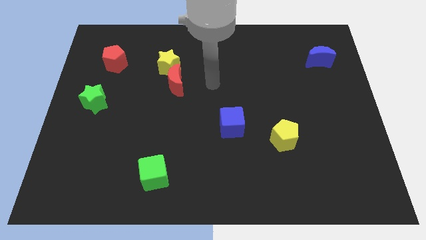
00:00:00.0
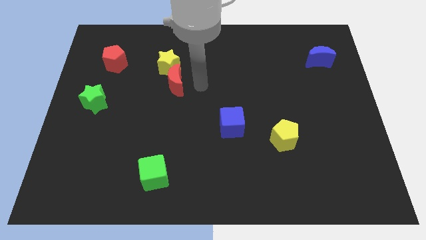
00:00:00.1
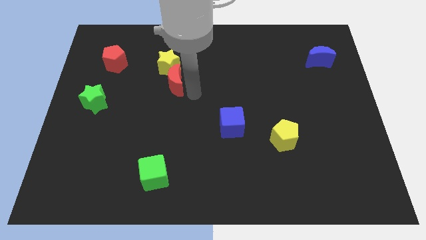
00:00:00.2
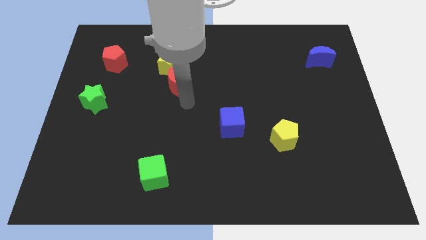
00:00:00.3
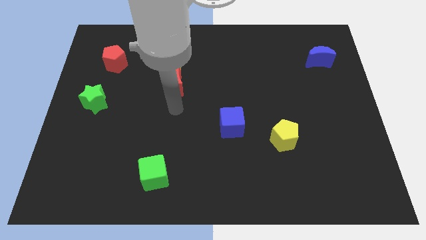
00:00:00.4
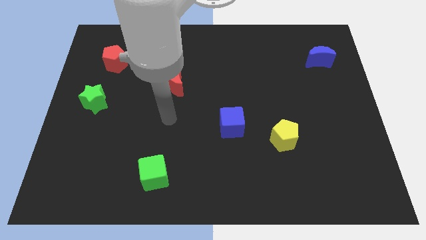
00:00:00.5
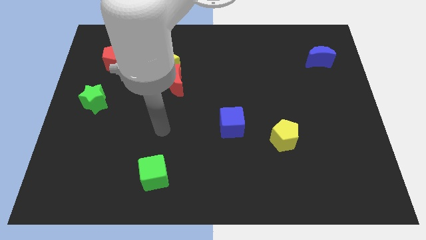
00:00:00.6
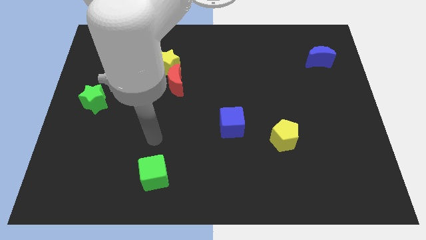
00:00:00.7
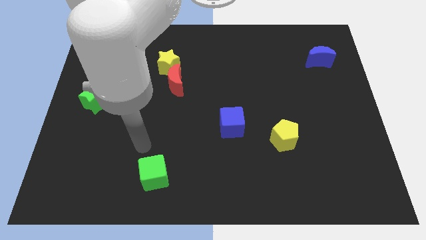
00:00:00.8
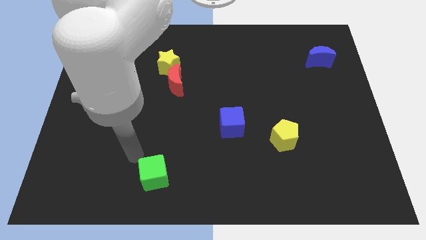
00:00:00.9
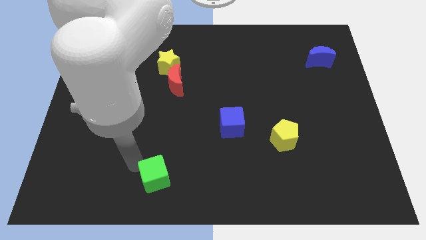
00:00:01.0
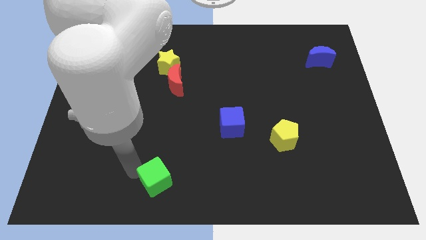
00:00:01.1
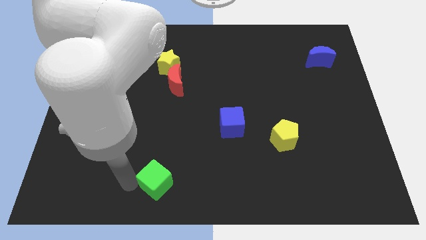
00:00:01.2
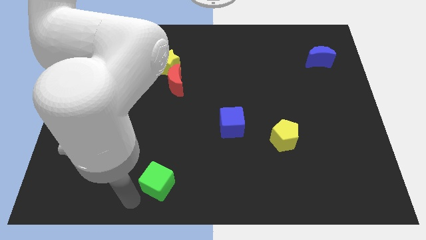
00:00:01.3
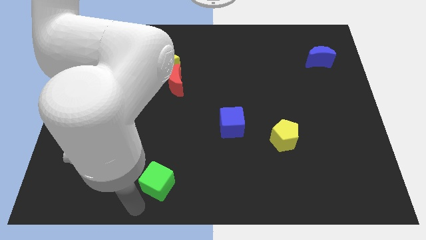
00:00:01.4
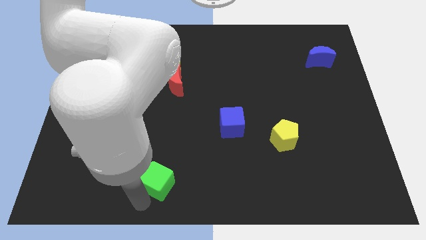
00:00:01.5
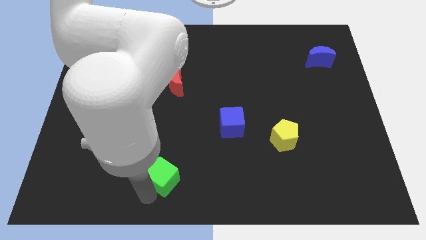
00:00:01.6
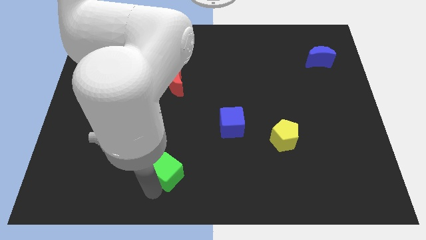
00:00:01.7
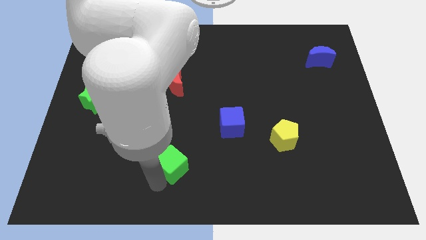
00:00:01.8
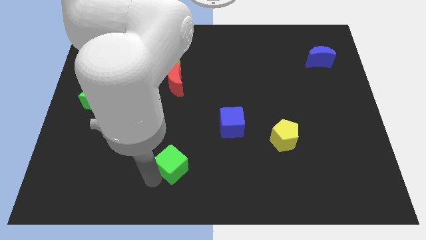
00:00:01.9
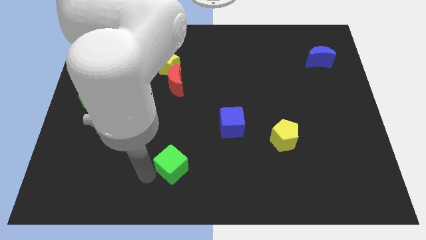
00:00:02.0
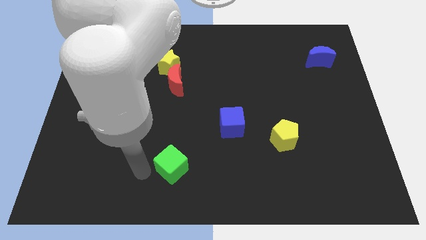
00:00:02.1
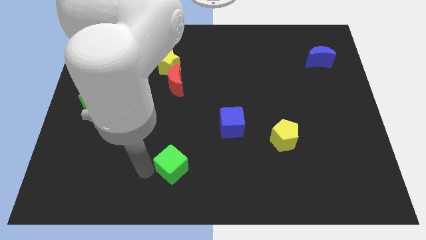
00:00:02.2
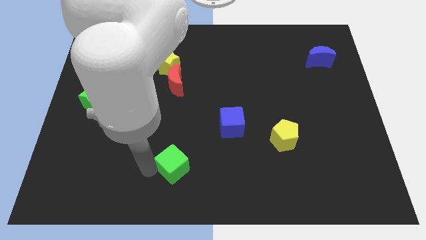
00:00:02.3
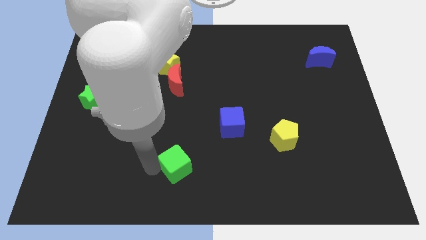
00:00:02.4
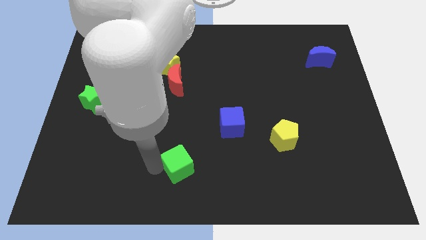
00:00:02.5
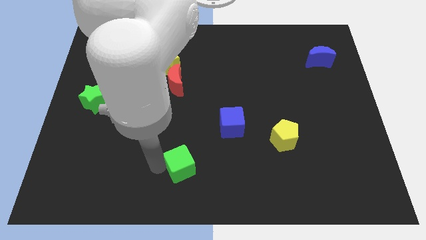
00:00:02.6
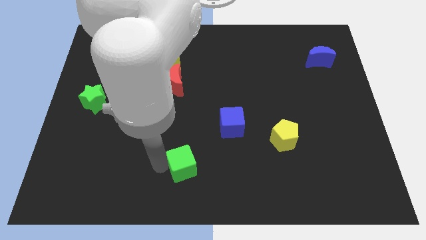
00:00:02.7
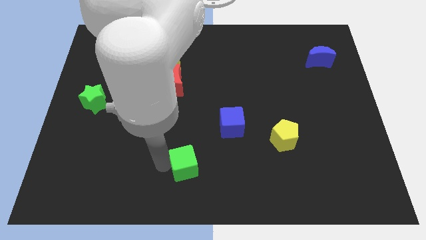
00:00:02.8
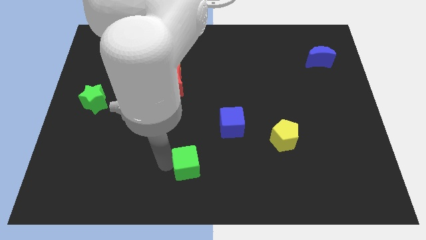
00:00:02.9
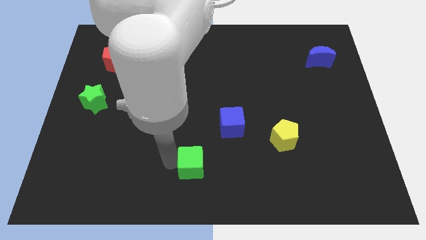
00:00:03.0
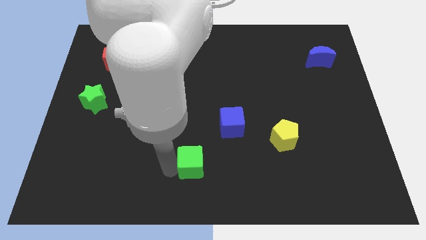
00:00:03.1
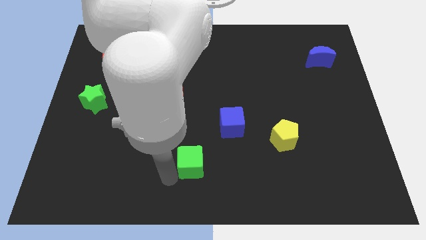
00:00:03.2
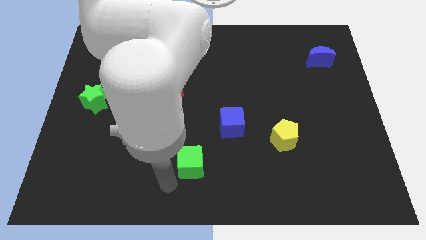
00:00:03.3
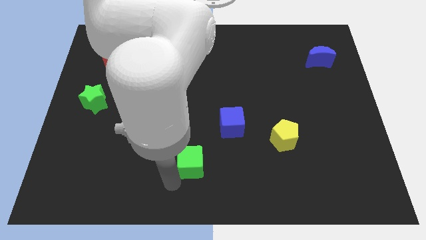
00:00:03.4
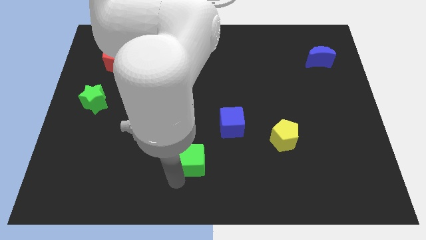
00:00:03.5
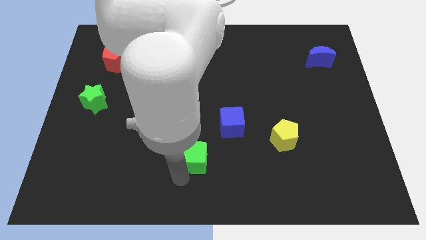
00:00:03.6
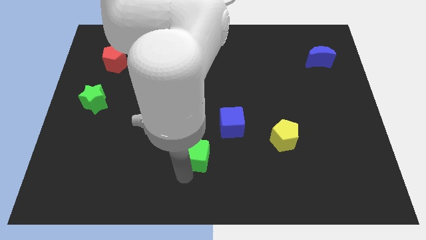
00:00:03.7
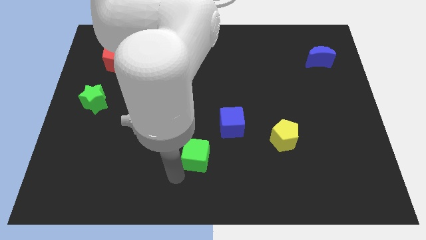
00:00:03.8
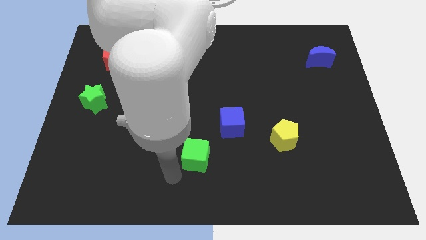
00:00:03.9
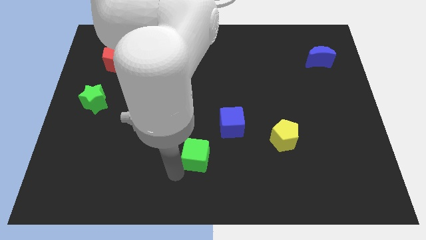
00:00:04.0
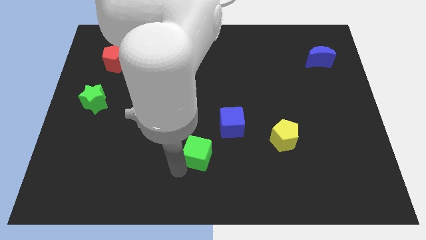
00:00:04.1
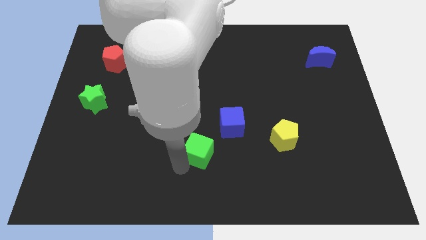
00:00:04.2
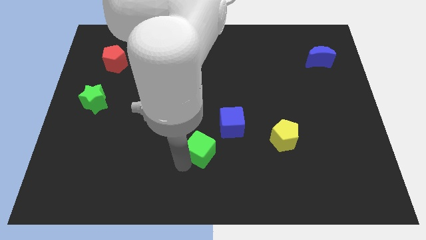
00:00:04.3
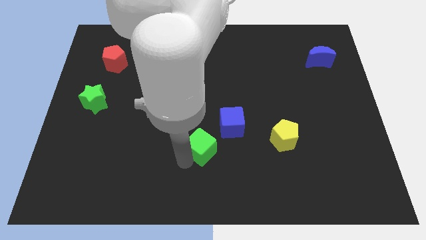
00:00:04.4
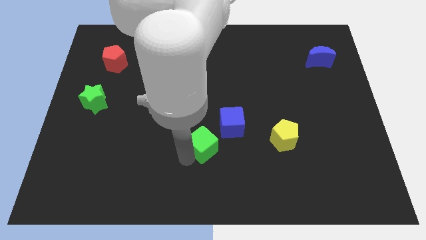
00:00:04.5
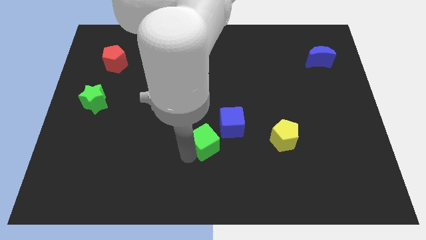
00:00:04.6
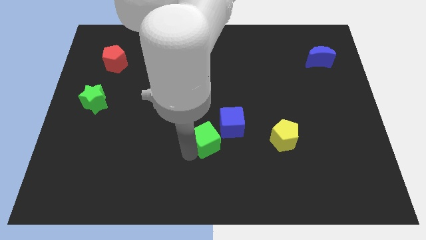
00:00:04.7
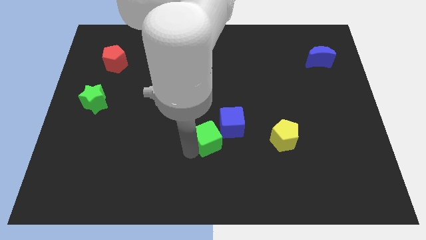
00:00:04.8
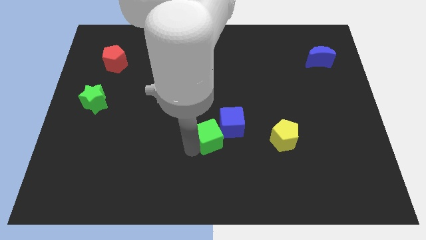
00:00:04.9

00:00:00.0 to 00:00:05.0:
move the green cube close to the blue cube

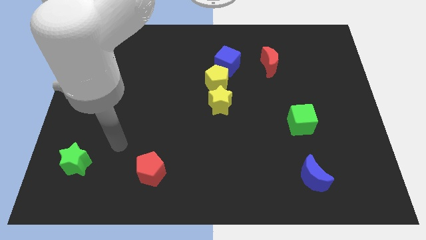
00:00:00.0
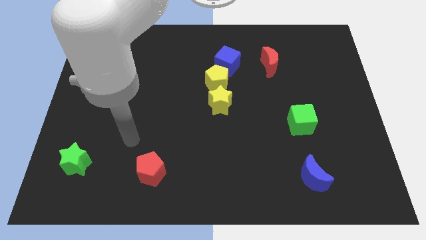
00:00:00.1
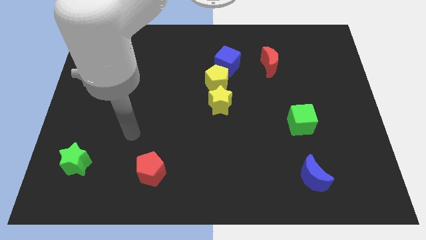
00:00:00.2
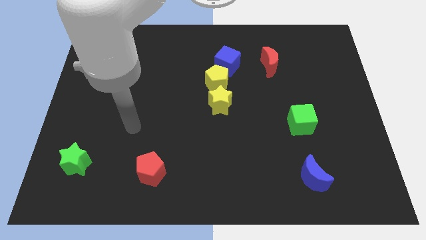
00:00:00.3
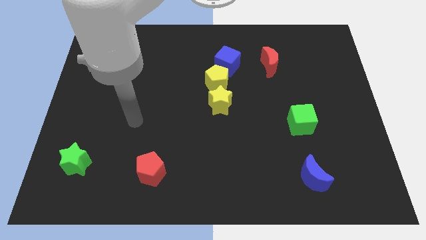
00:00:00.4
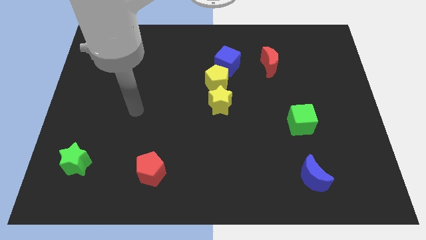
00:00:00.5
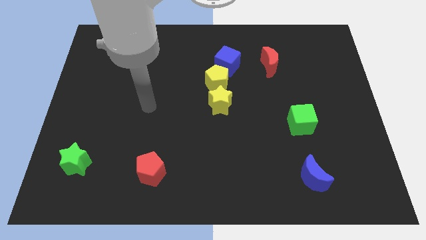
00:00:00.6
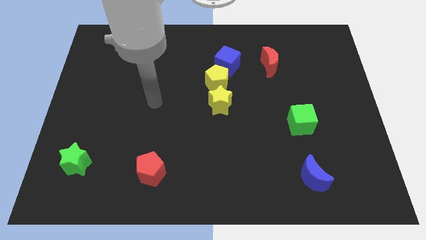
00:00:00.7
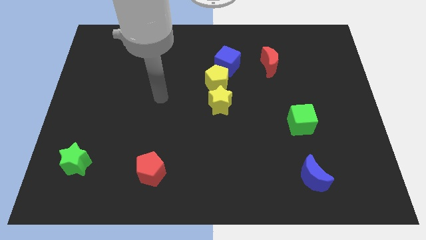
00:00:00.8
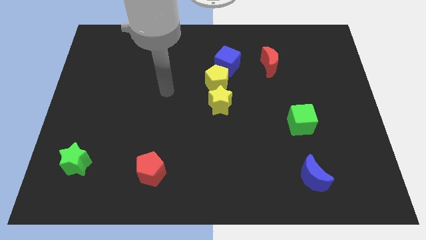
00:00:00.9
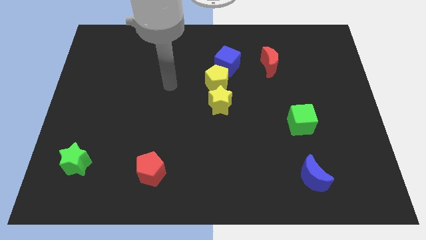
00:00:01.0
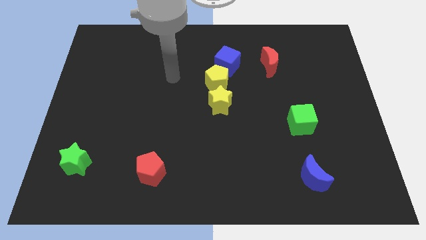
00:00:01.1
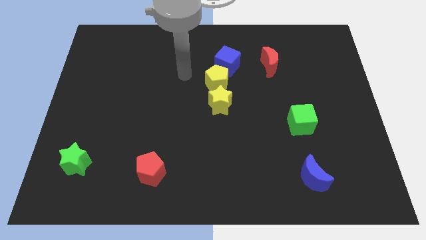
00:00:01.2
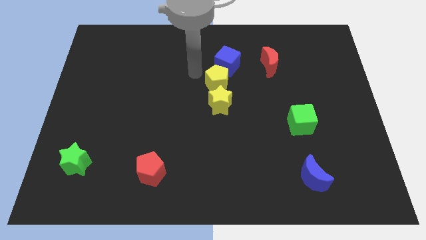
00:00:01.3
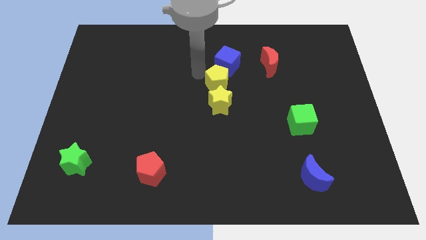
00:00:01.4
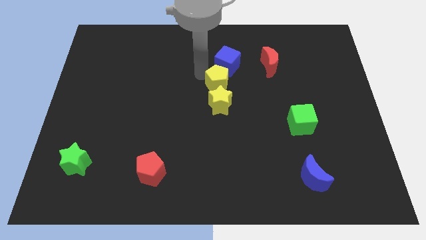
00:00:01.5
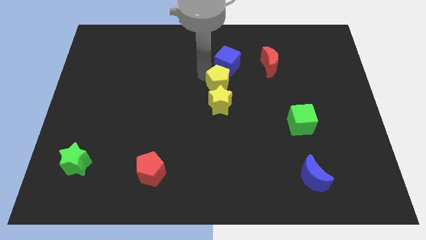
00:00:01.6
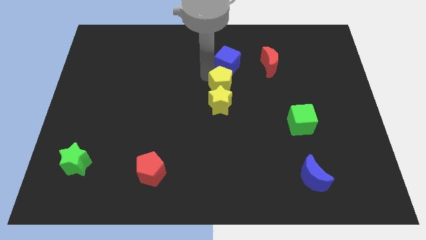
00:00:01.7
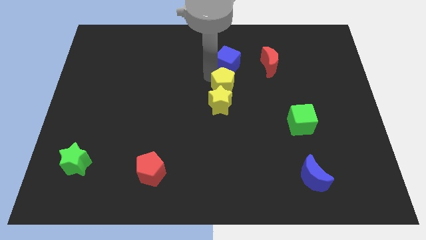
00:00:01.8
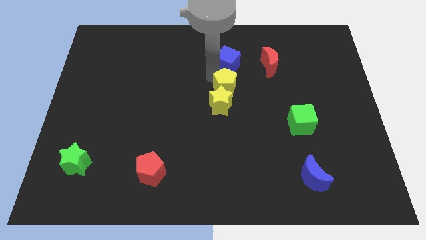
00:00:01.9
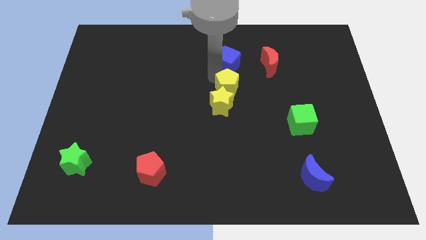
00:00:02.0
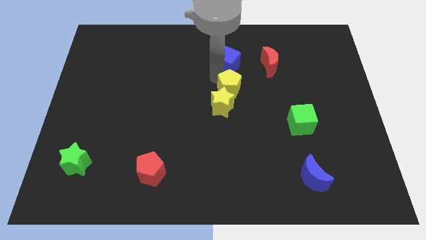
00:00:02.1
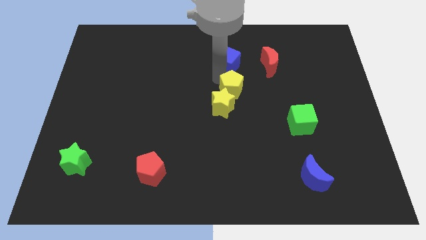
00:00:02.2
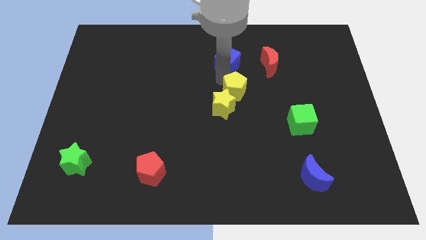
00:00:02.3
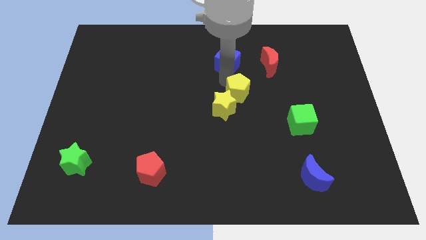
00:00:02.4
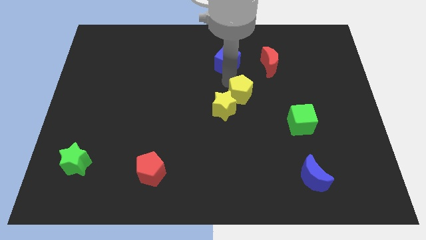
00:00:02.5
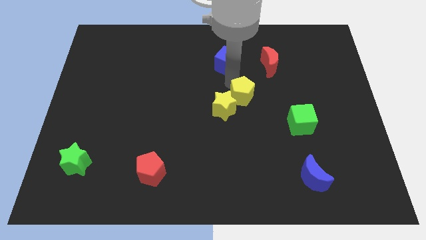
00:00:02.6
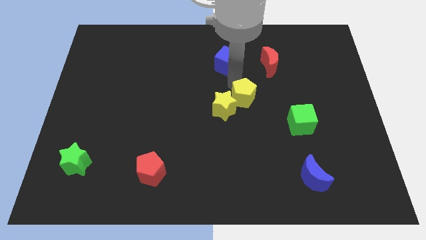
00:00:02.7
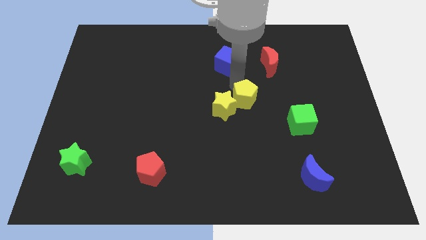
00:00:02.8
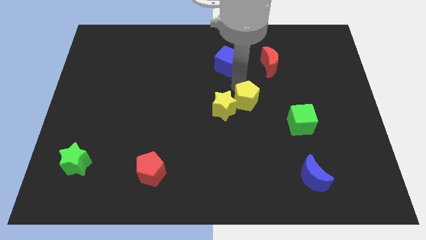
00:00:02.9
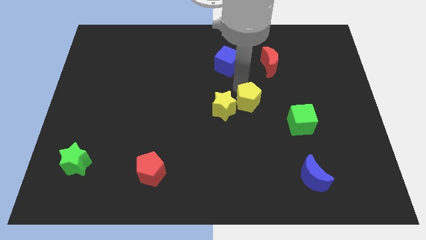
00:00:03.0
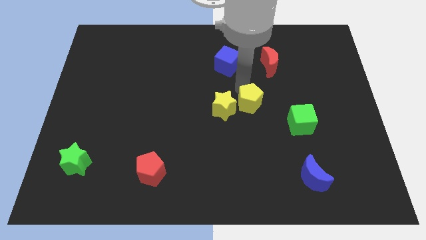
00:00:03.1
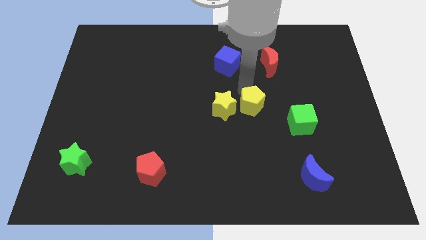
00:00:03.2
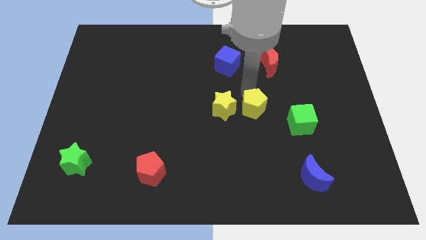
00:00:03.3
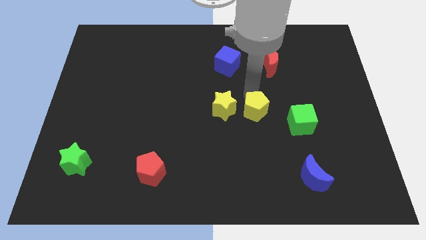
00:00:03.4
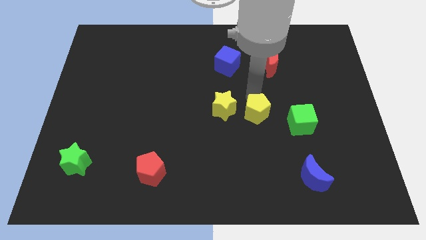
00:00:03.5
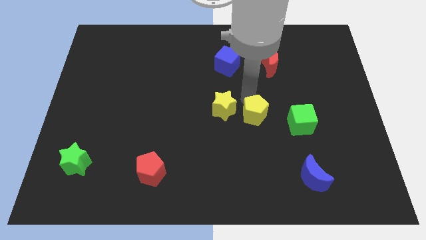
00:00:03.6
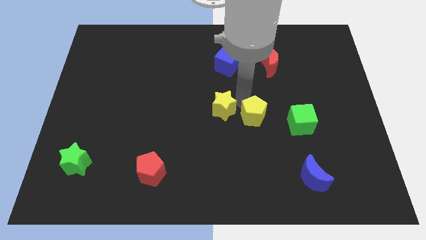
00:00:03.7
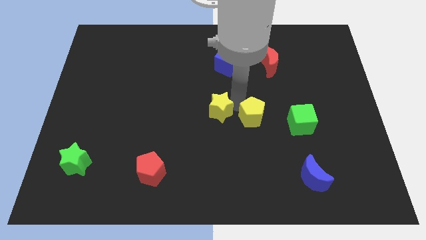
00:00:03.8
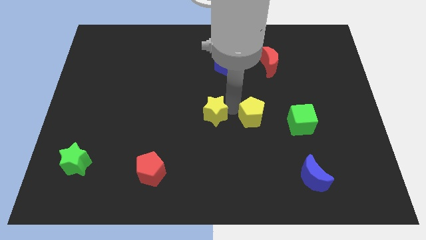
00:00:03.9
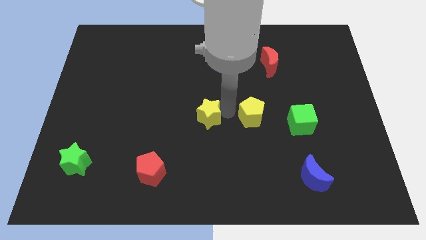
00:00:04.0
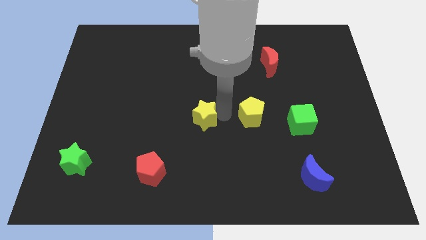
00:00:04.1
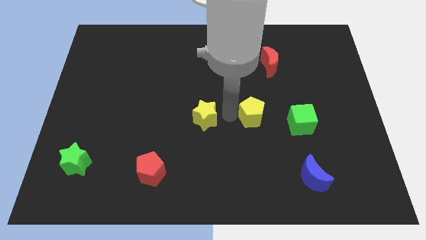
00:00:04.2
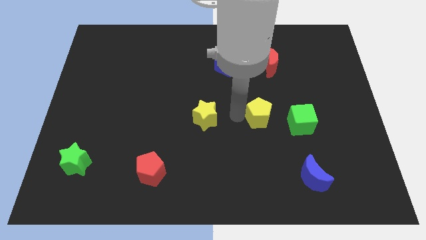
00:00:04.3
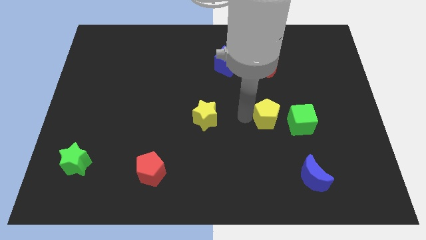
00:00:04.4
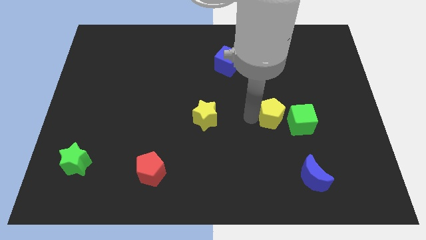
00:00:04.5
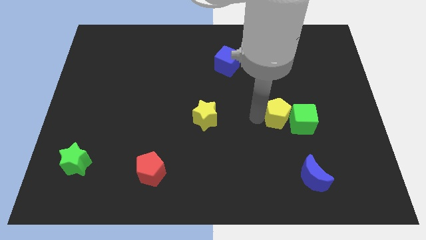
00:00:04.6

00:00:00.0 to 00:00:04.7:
push the yellow pentagon towards the green cube
